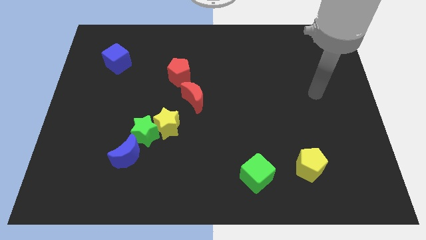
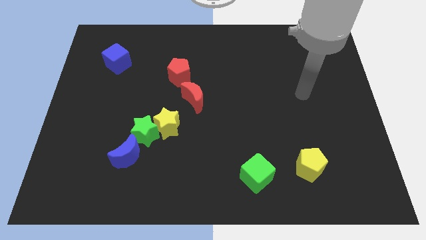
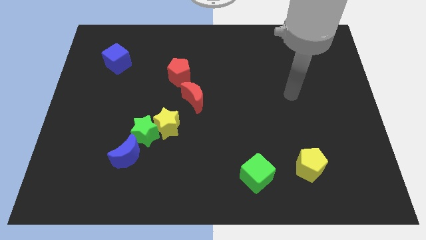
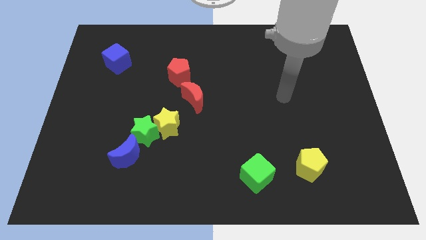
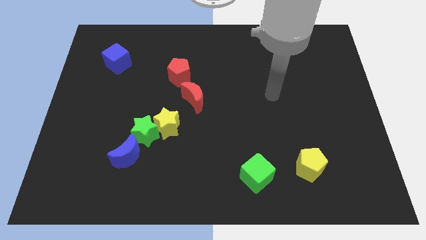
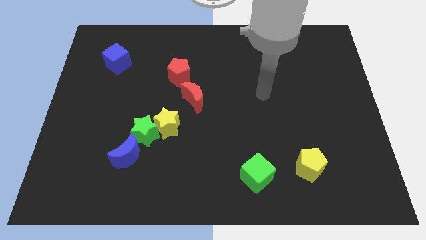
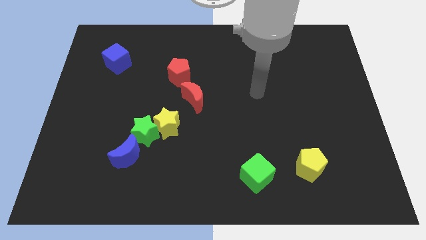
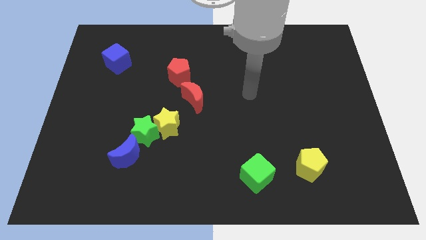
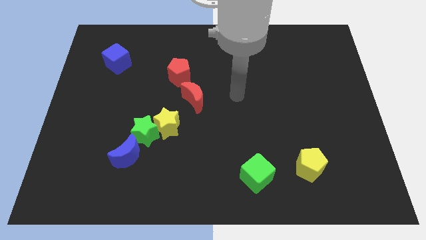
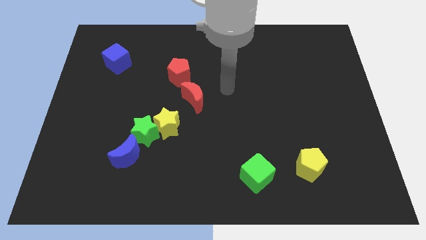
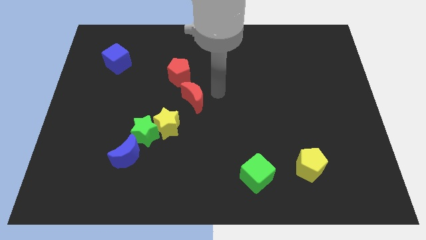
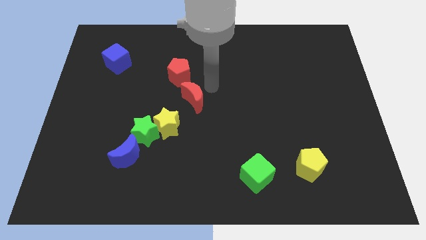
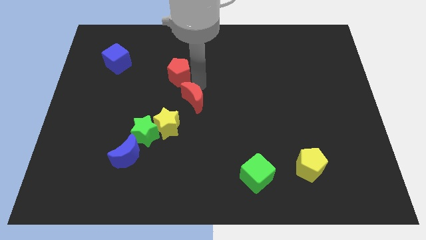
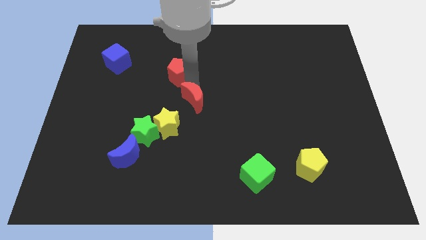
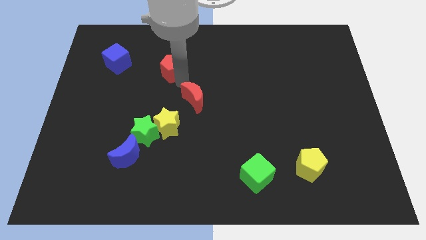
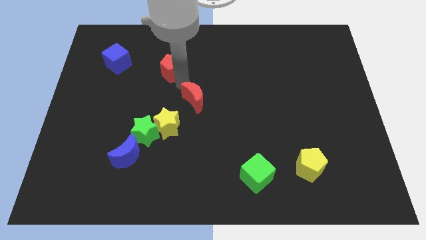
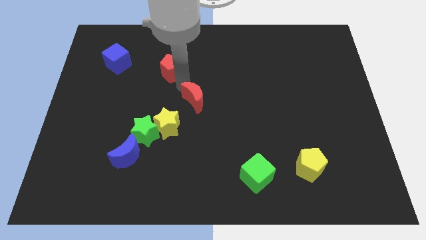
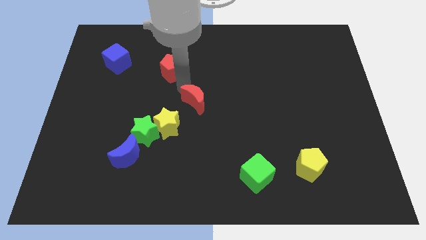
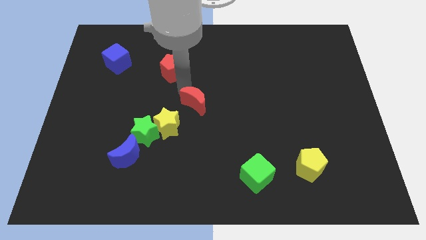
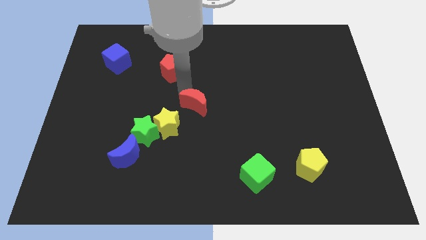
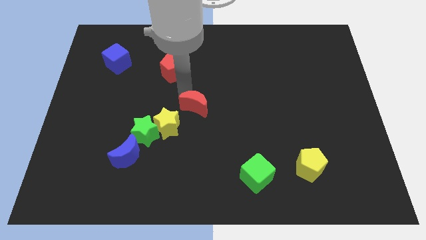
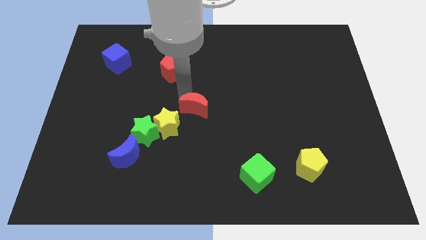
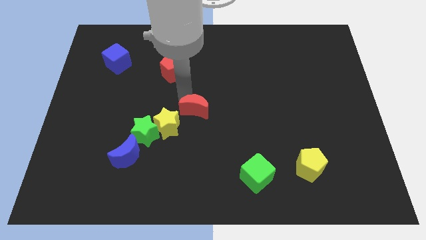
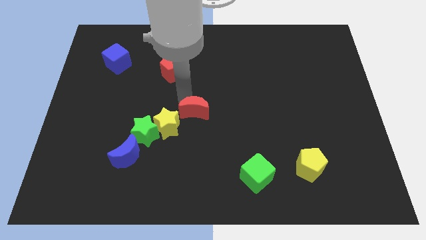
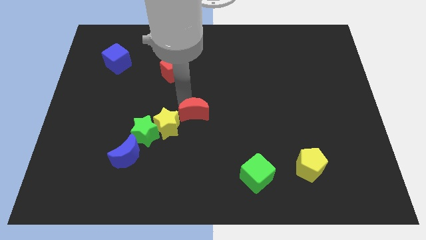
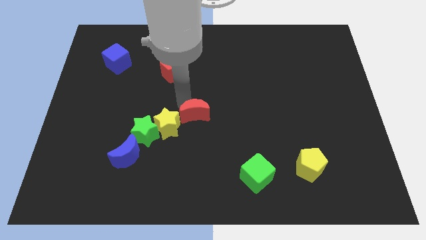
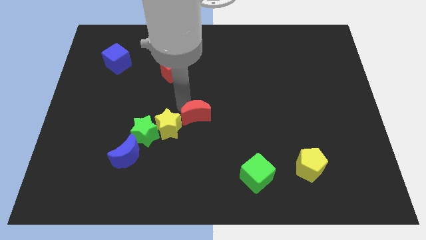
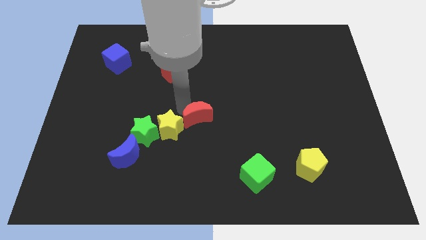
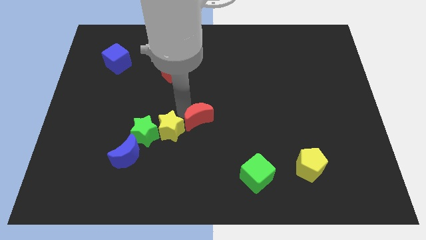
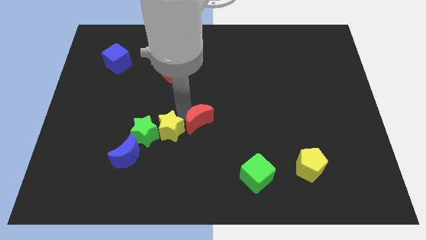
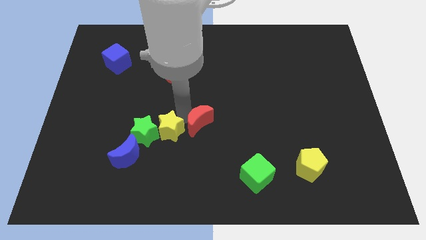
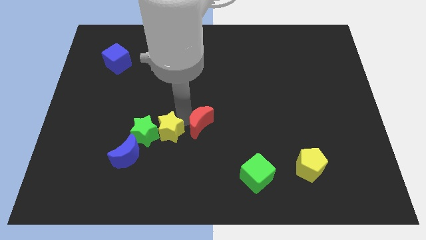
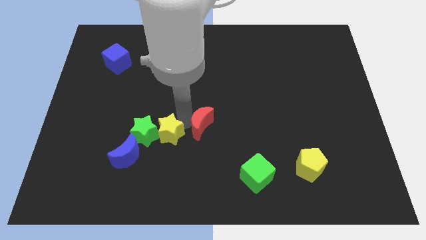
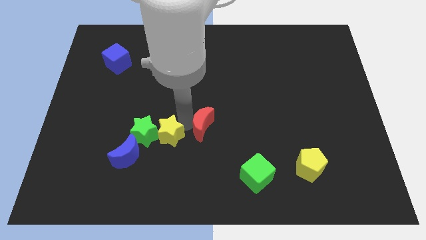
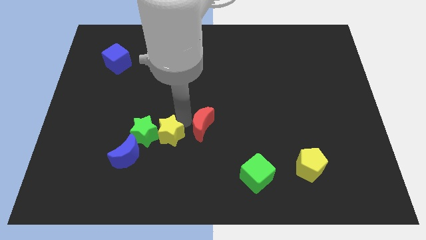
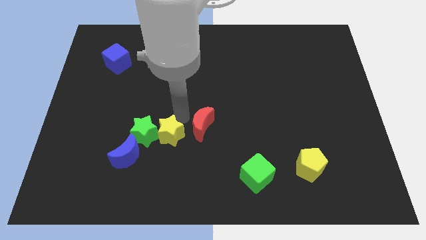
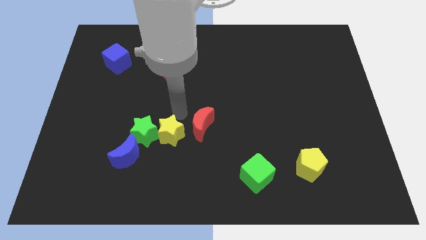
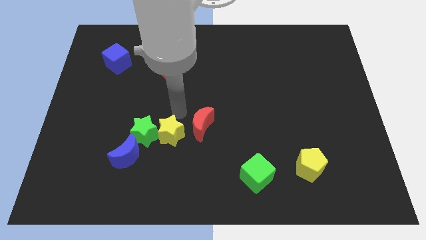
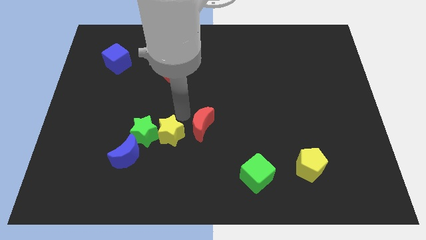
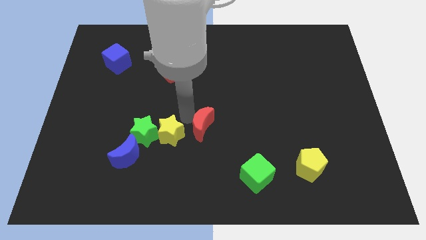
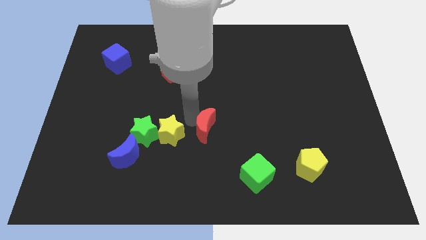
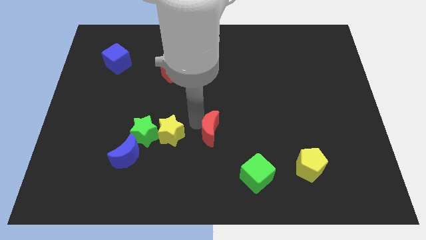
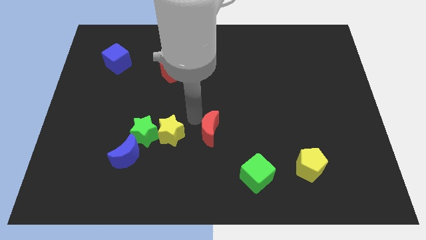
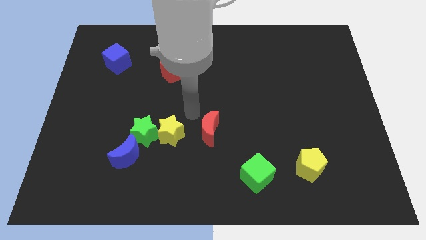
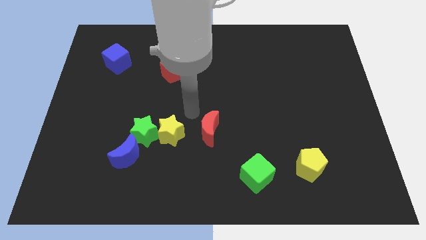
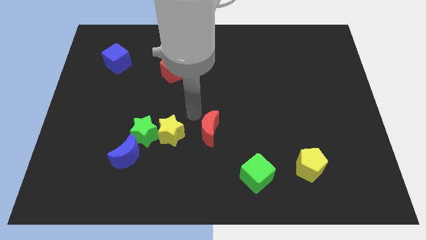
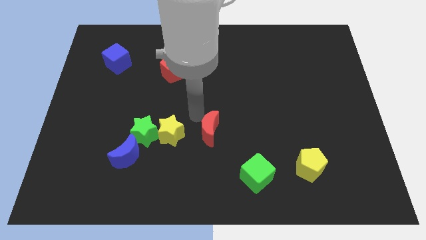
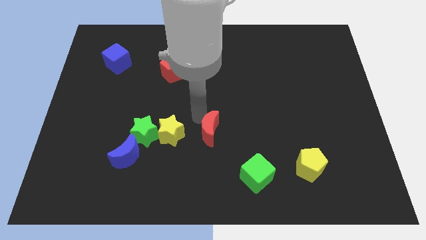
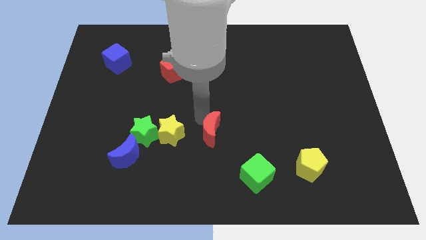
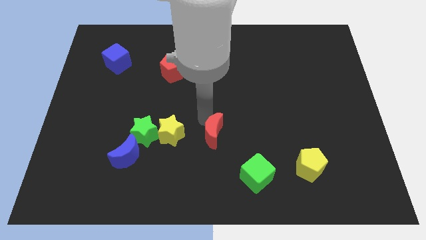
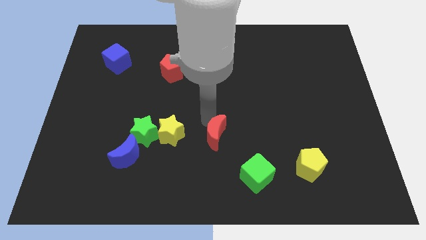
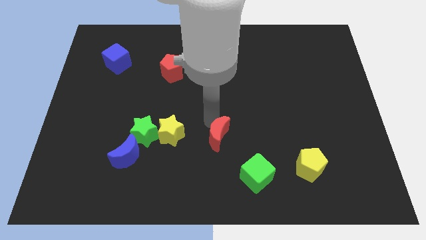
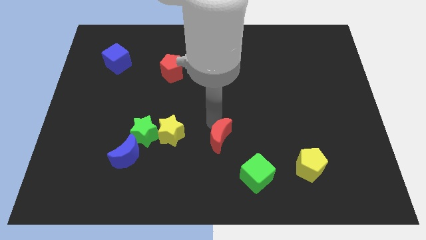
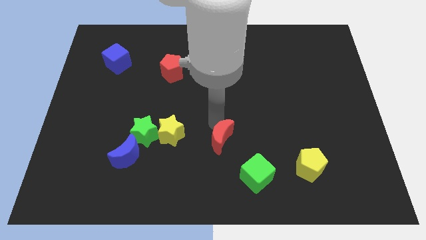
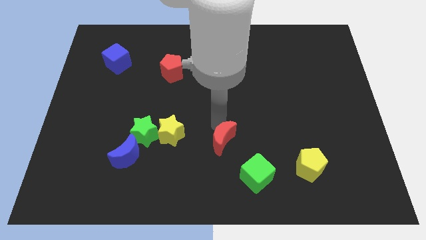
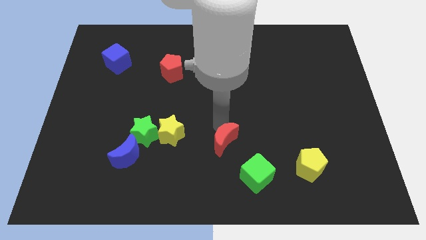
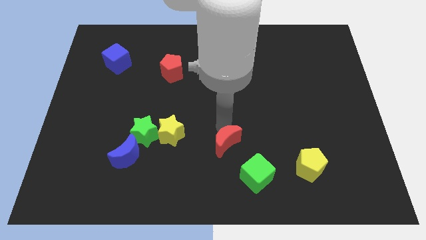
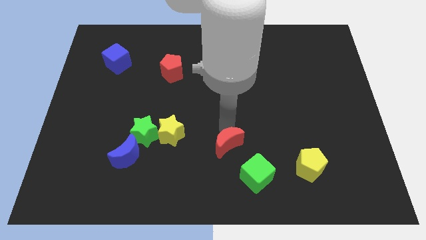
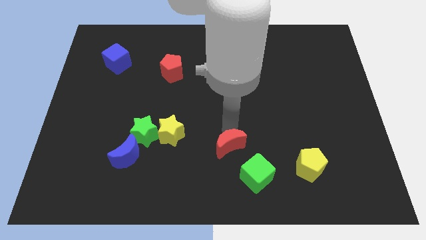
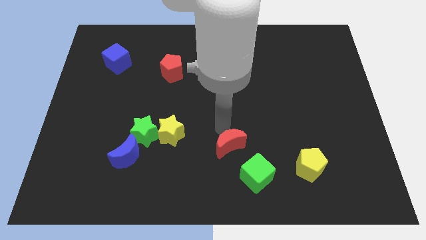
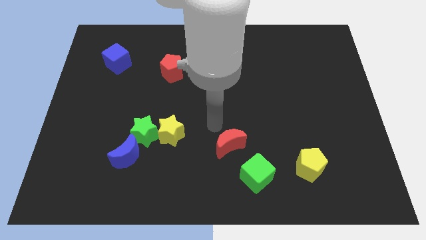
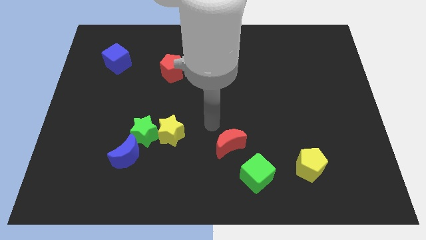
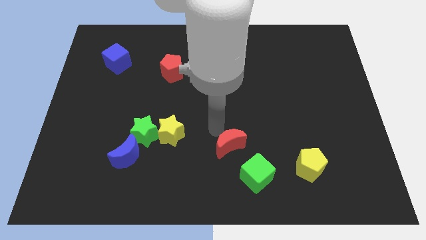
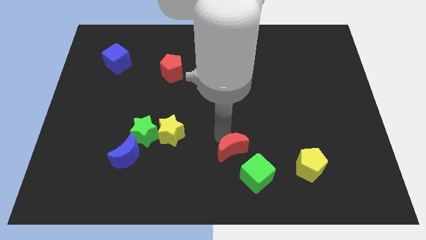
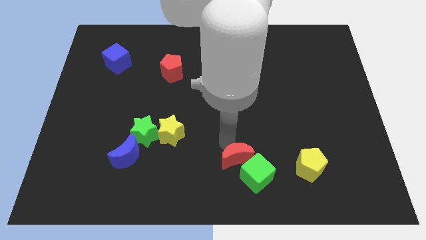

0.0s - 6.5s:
put the red moon to the green cube
